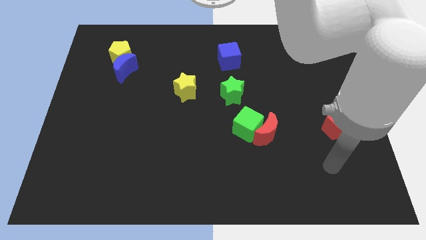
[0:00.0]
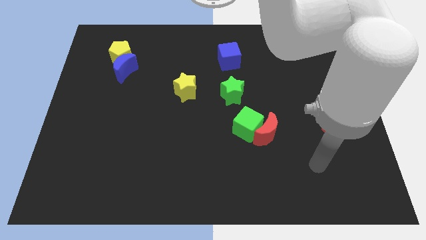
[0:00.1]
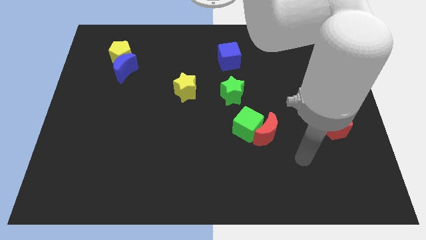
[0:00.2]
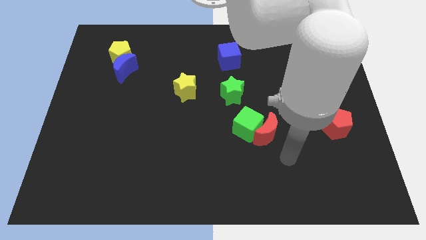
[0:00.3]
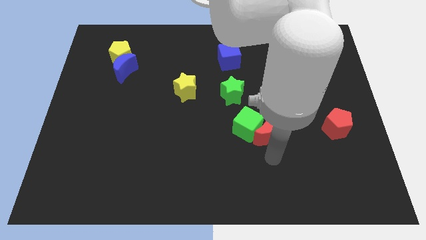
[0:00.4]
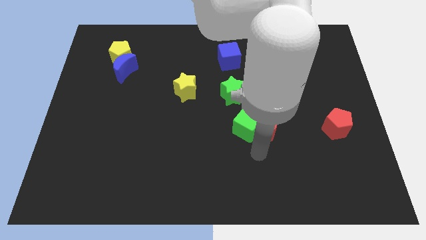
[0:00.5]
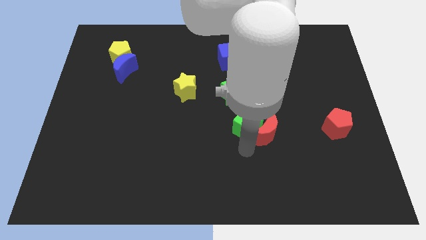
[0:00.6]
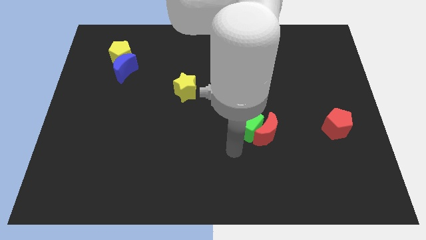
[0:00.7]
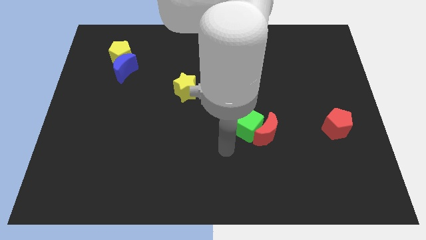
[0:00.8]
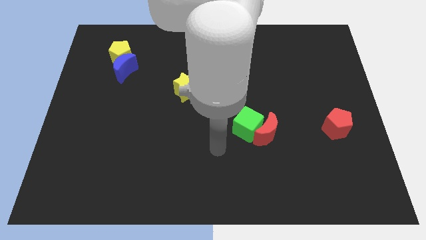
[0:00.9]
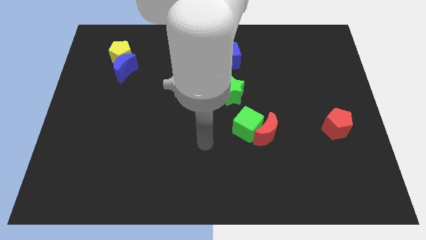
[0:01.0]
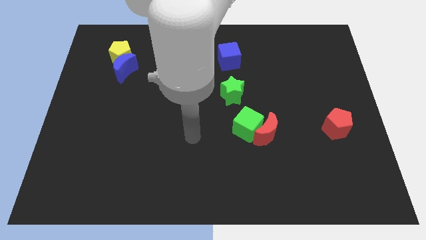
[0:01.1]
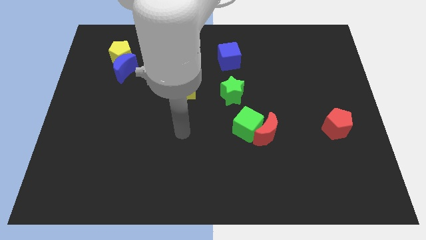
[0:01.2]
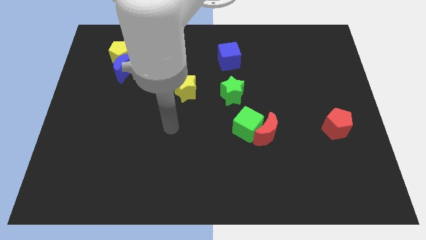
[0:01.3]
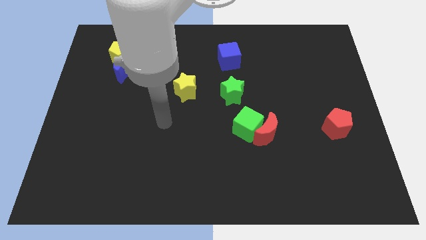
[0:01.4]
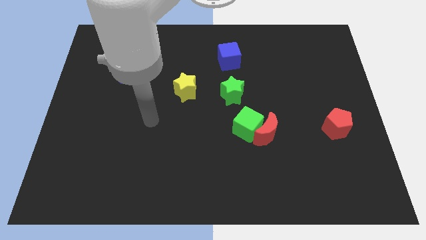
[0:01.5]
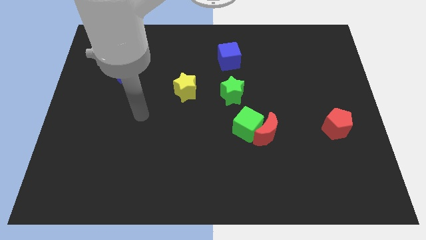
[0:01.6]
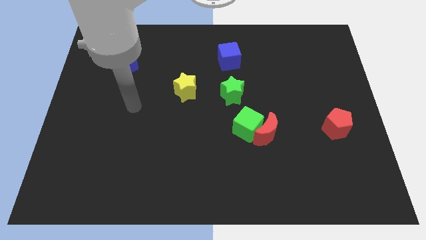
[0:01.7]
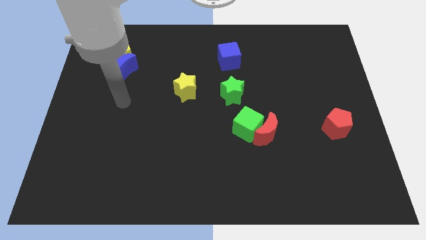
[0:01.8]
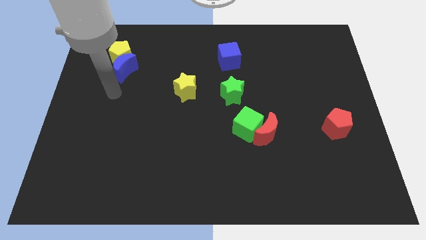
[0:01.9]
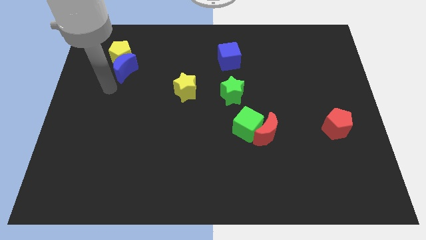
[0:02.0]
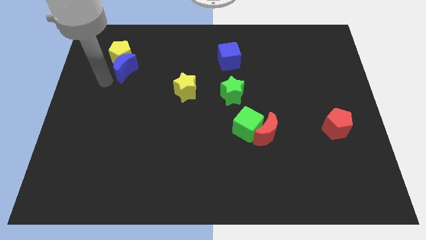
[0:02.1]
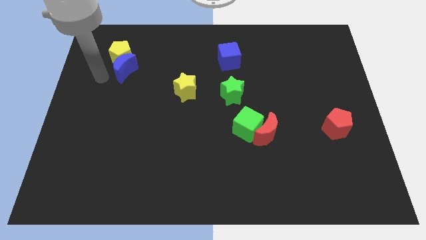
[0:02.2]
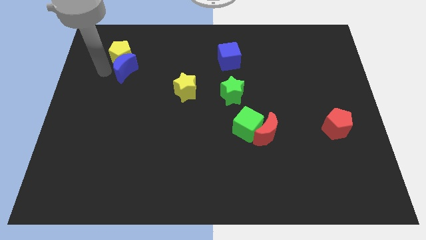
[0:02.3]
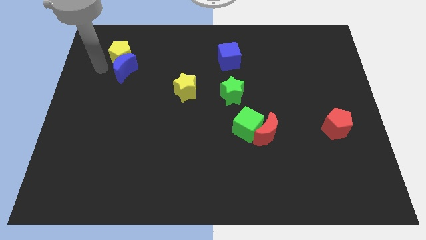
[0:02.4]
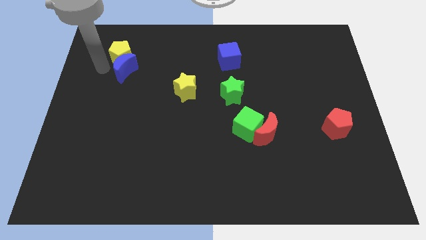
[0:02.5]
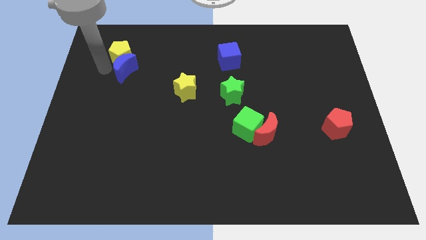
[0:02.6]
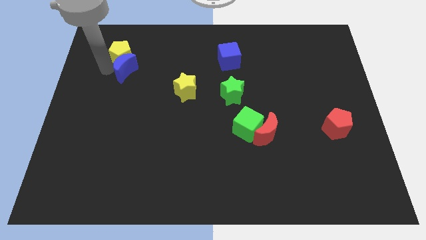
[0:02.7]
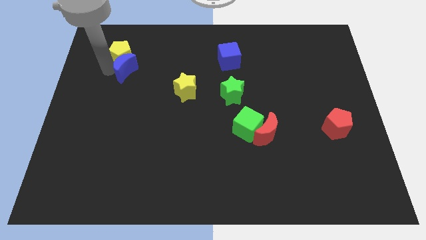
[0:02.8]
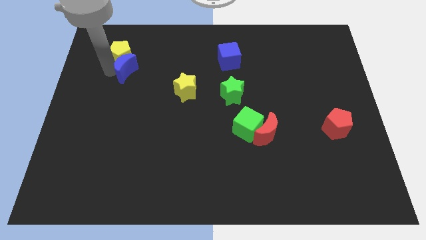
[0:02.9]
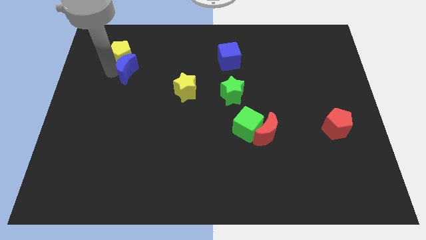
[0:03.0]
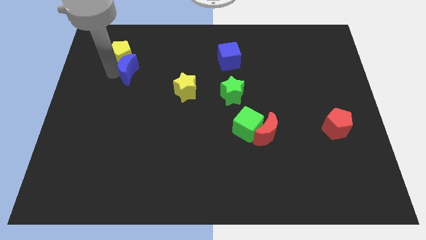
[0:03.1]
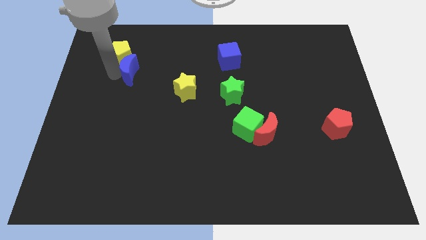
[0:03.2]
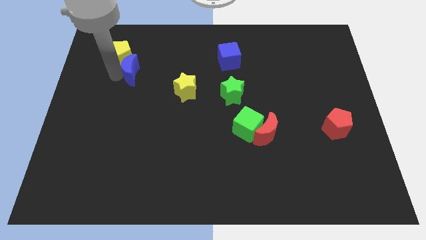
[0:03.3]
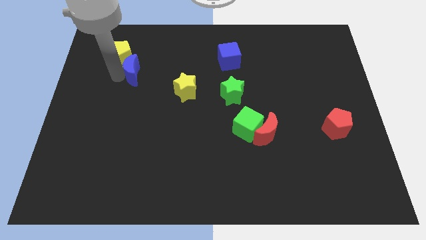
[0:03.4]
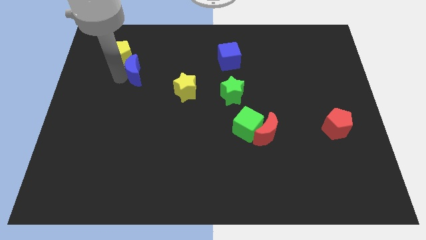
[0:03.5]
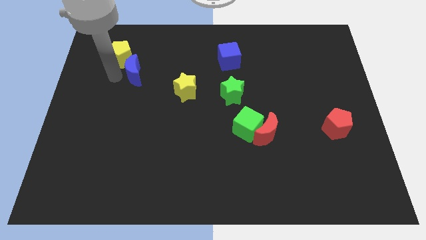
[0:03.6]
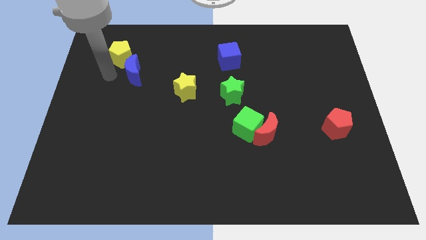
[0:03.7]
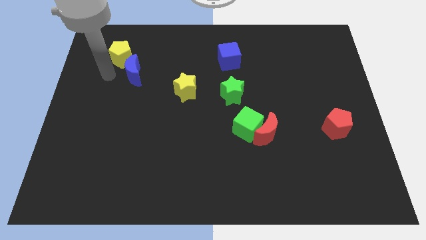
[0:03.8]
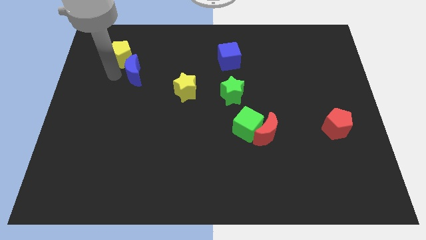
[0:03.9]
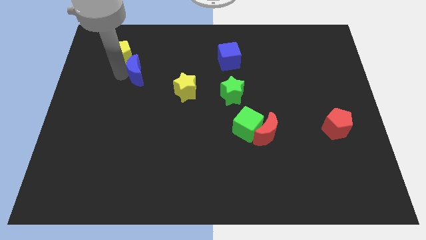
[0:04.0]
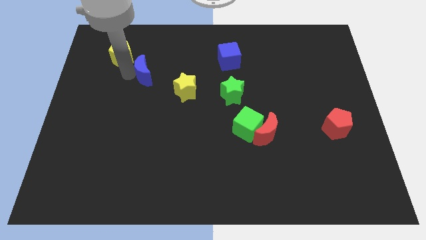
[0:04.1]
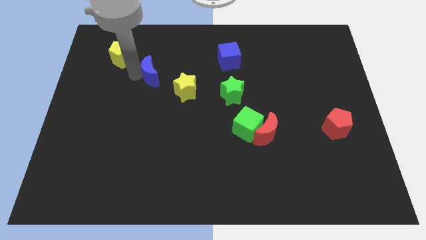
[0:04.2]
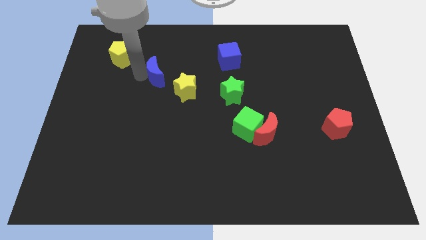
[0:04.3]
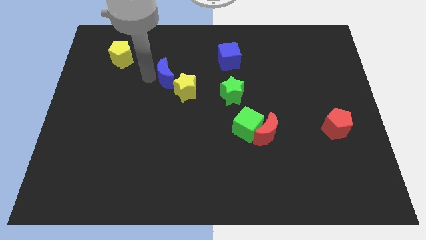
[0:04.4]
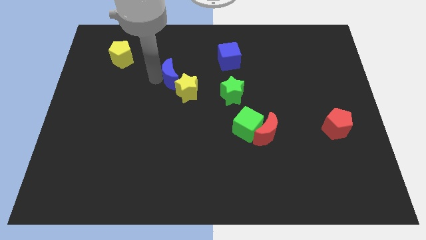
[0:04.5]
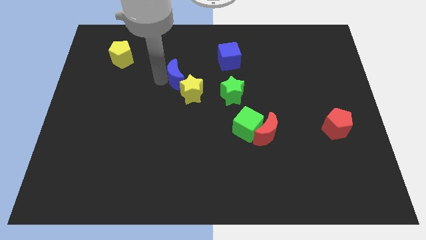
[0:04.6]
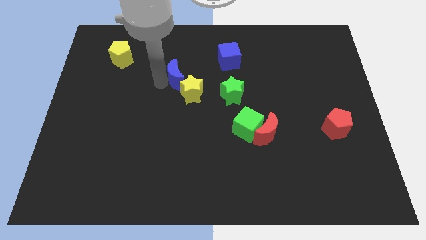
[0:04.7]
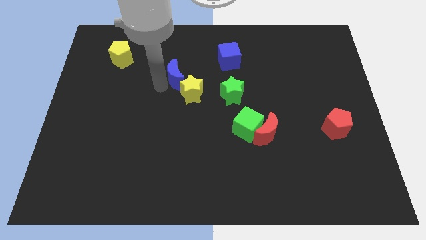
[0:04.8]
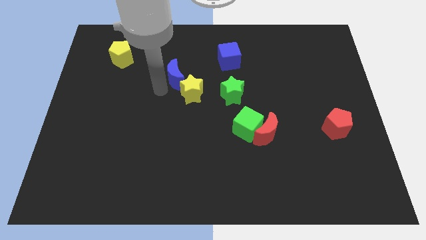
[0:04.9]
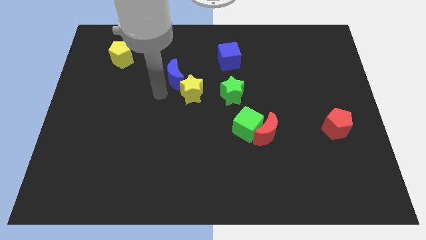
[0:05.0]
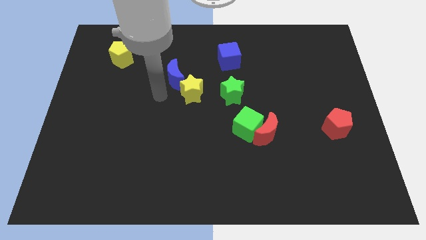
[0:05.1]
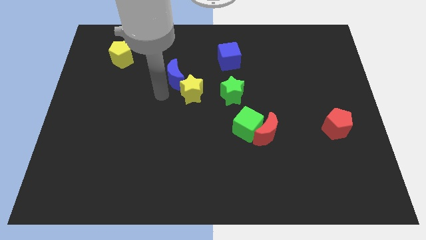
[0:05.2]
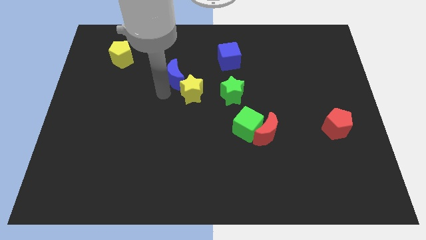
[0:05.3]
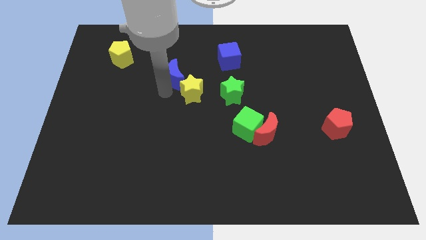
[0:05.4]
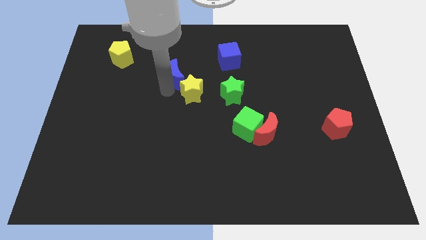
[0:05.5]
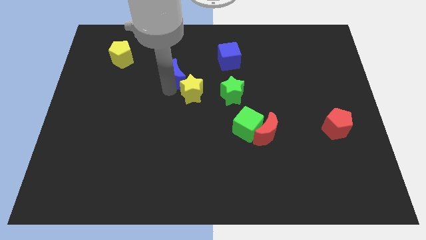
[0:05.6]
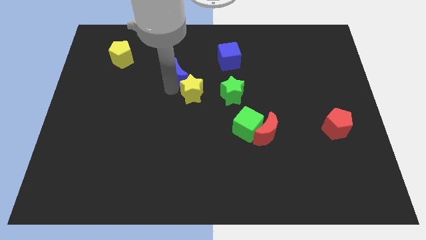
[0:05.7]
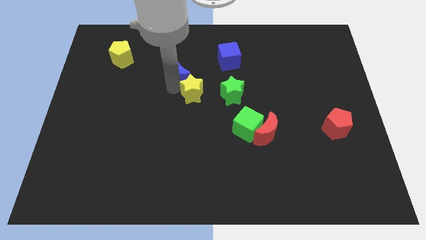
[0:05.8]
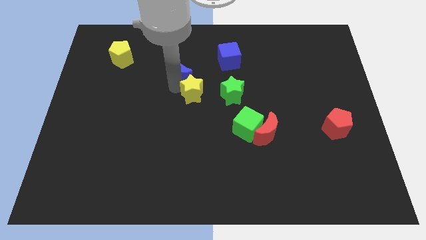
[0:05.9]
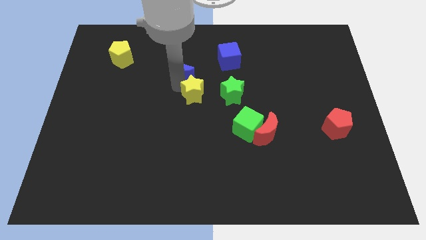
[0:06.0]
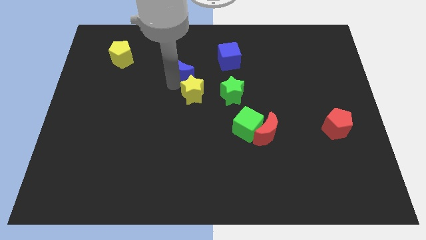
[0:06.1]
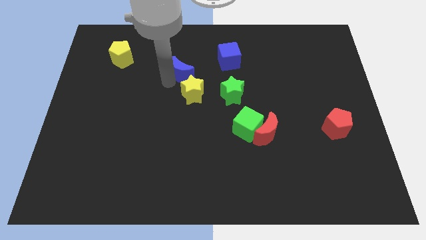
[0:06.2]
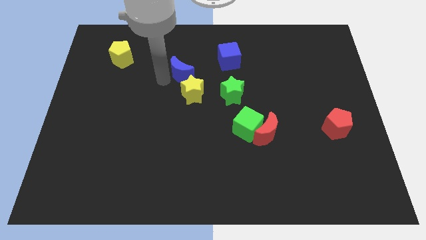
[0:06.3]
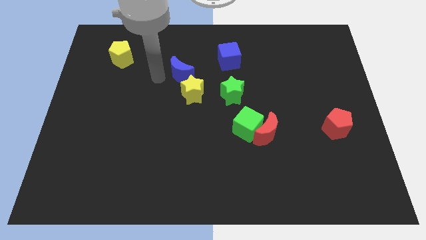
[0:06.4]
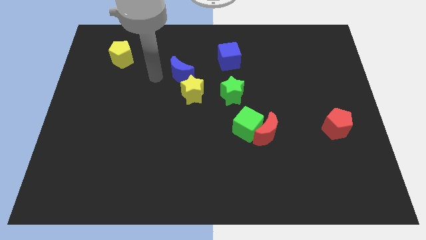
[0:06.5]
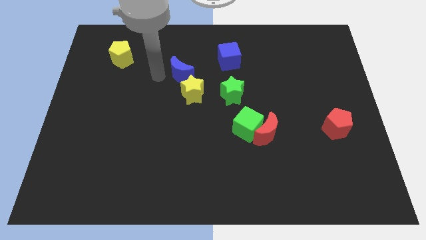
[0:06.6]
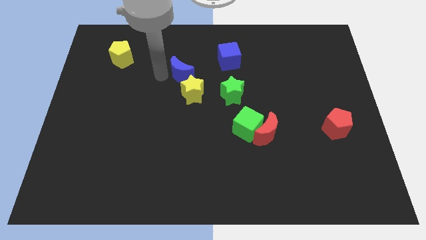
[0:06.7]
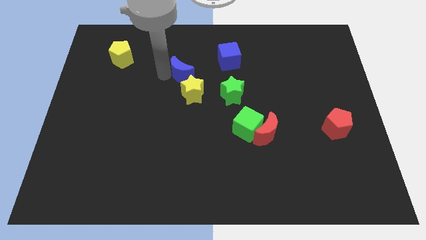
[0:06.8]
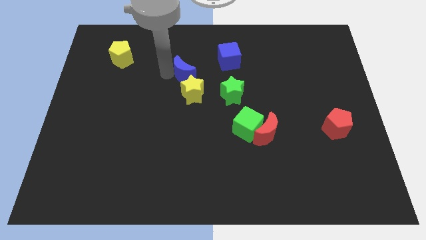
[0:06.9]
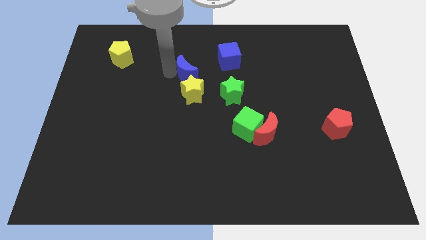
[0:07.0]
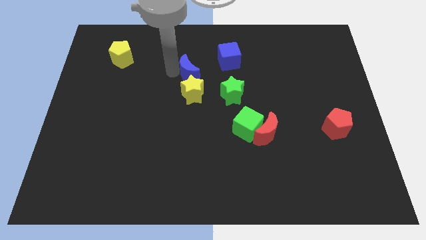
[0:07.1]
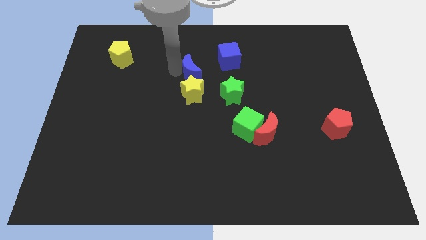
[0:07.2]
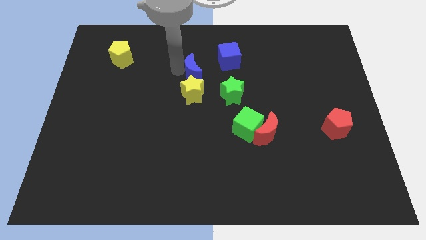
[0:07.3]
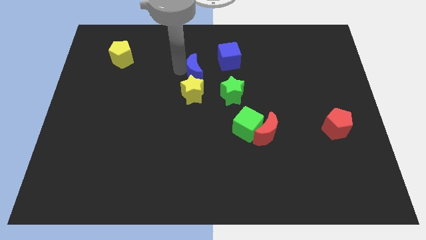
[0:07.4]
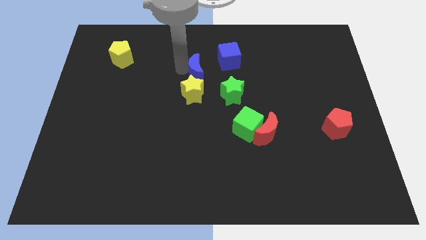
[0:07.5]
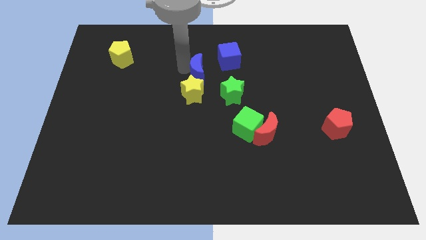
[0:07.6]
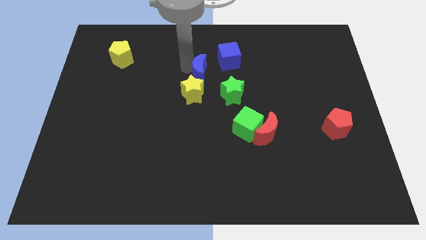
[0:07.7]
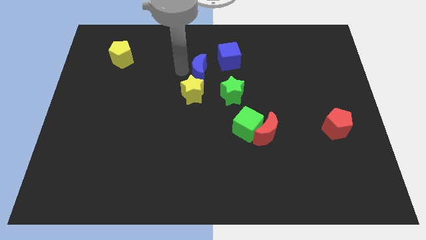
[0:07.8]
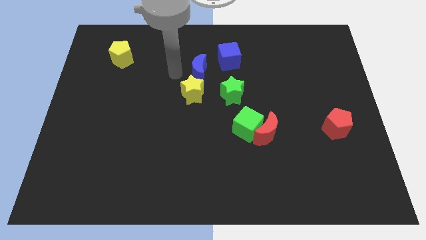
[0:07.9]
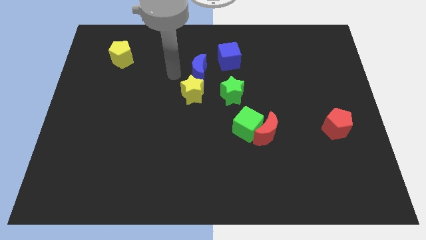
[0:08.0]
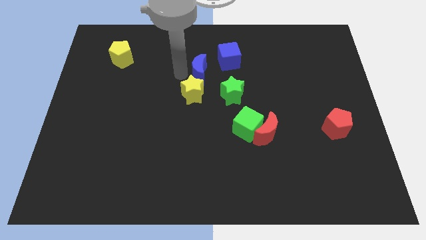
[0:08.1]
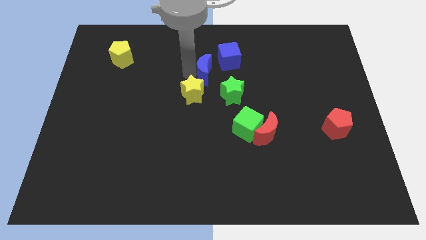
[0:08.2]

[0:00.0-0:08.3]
push the blue moon to the right
